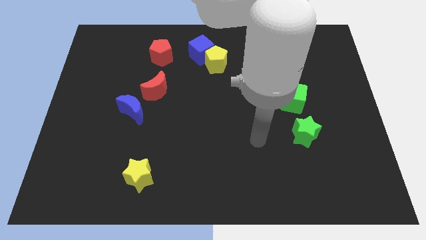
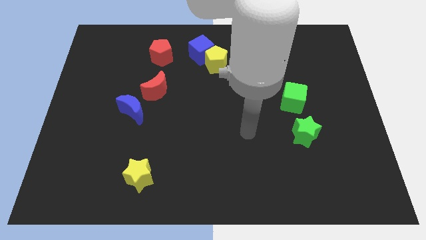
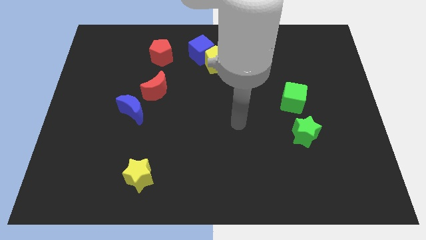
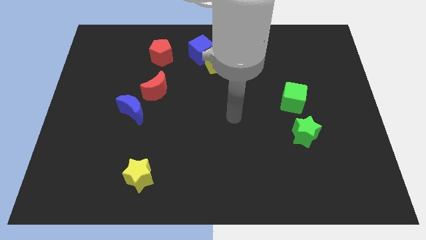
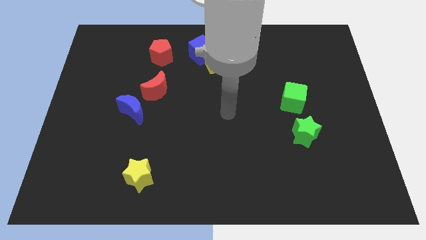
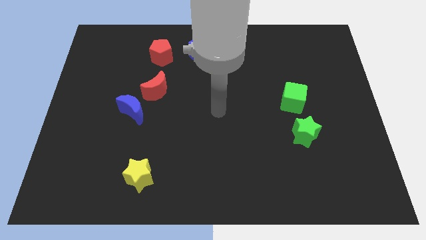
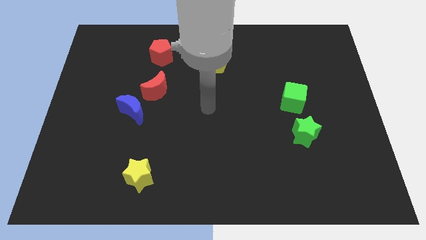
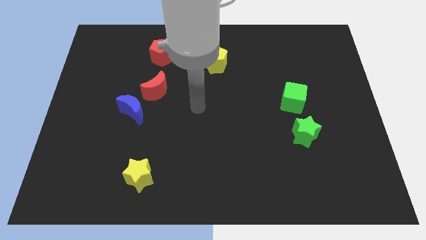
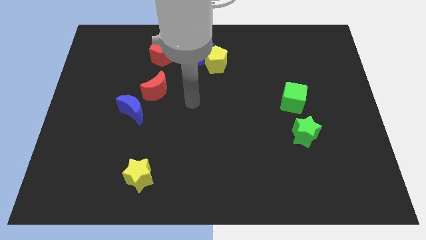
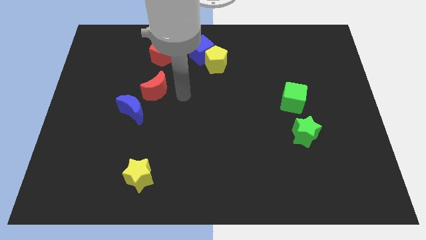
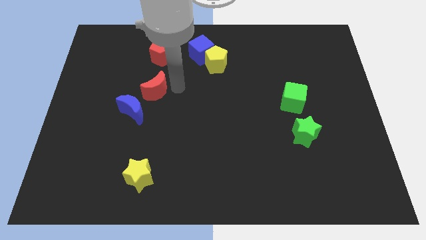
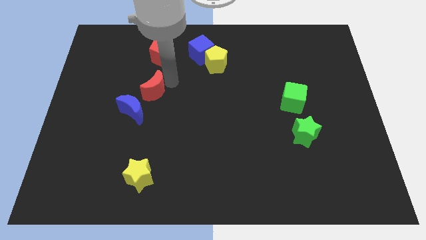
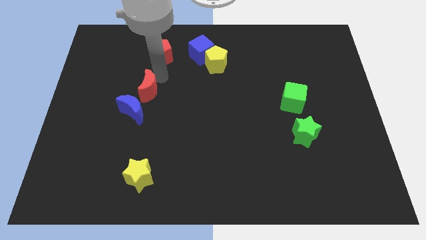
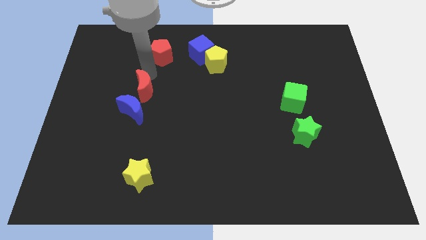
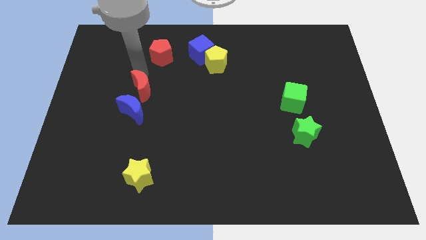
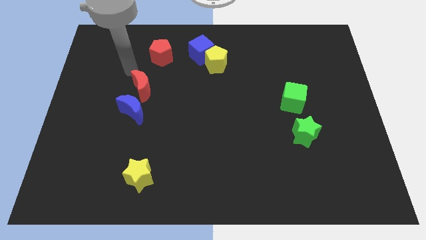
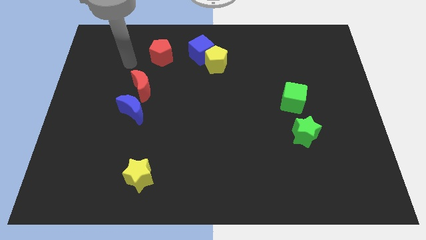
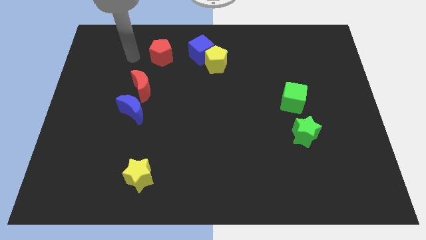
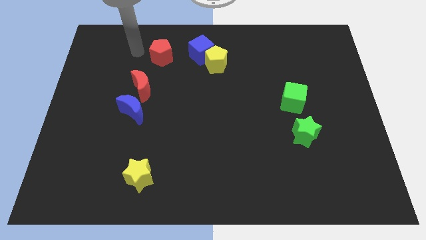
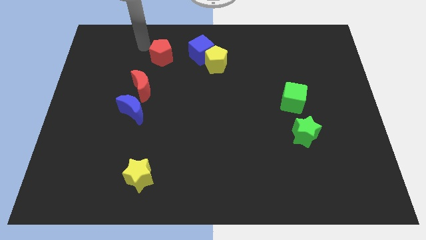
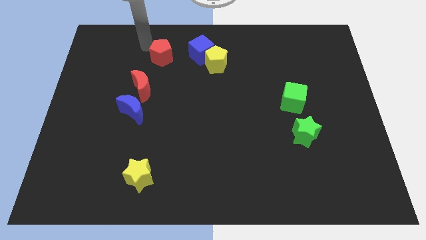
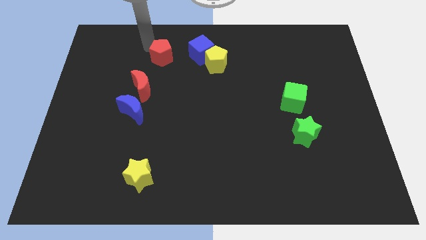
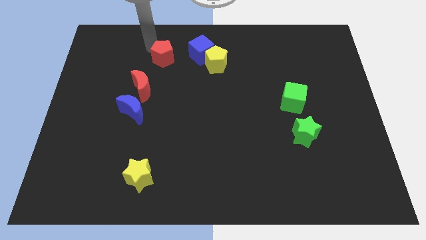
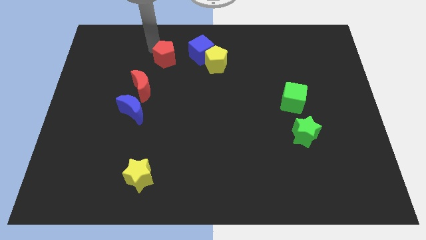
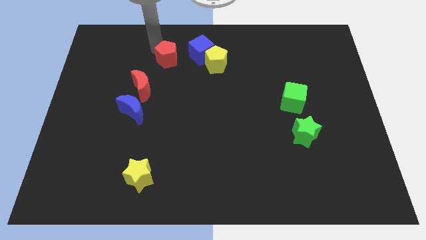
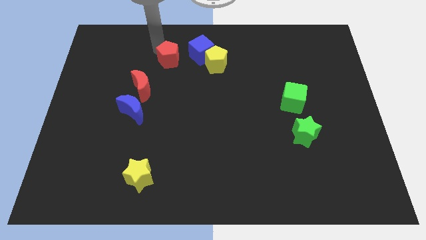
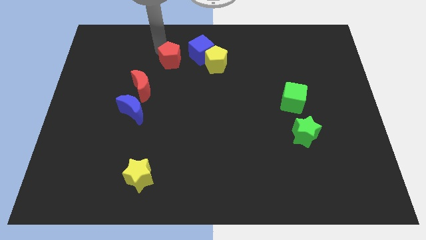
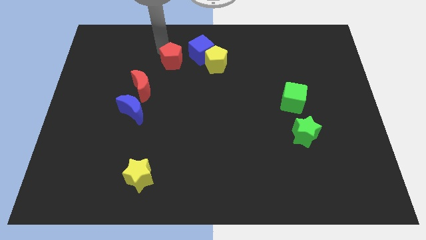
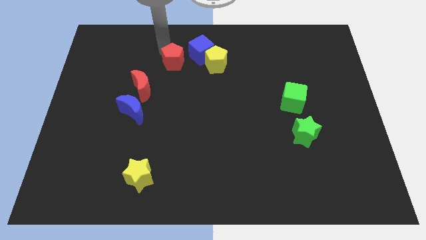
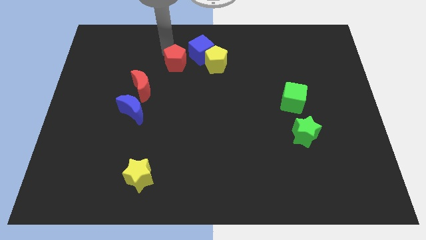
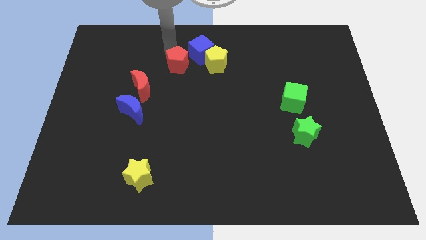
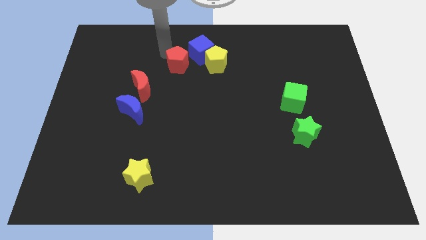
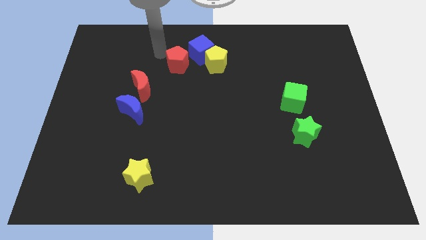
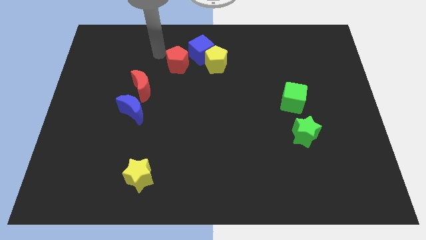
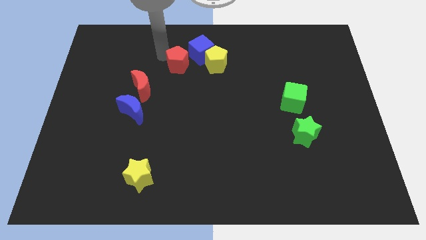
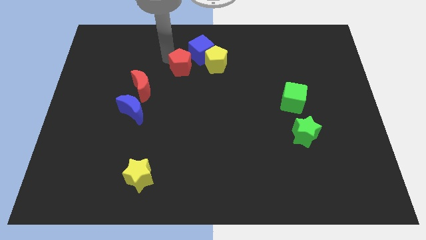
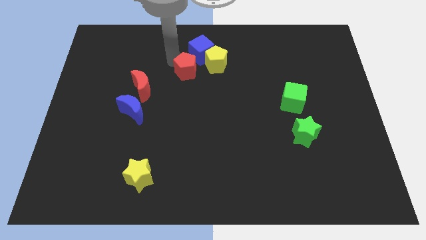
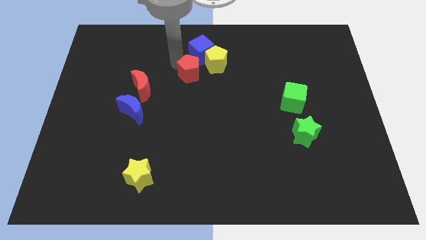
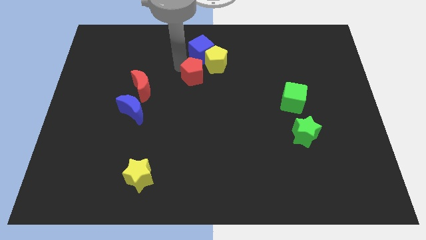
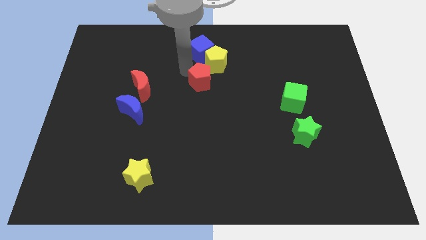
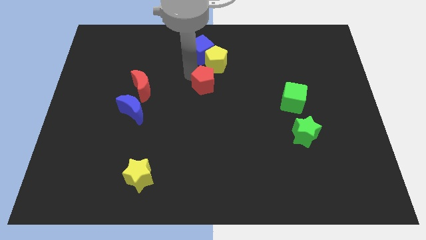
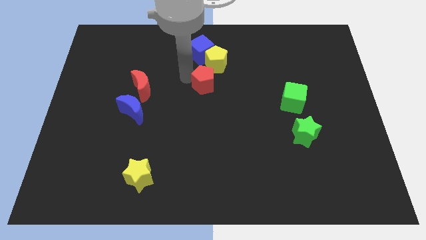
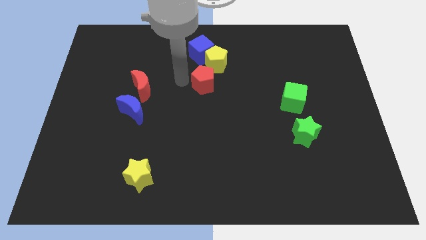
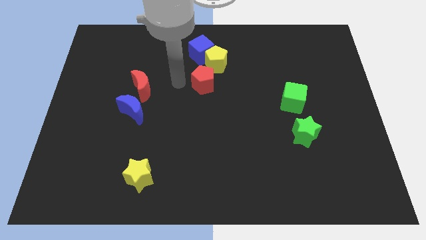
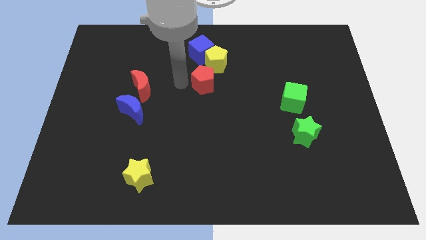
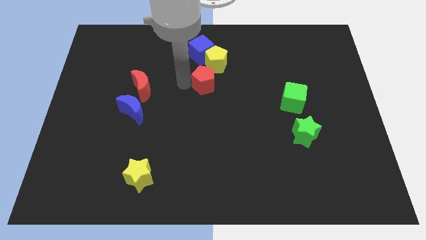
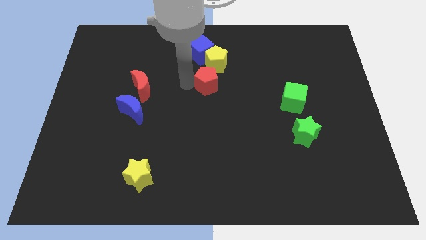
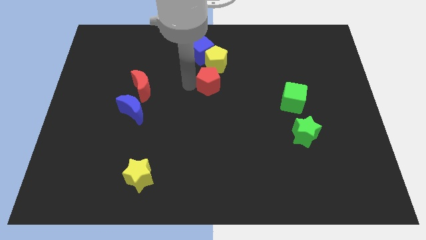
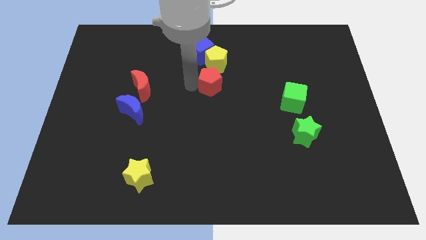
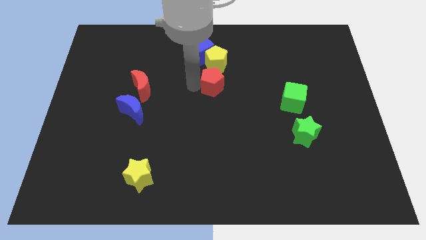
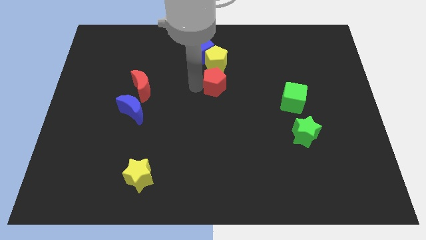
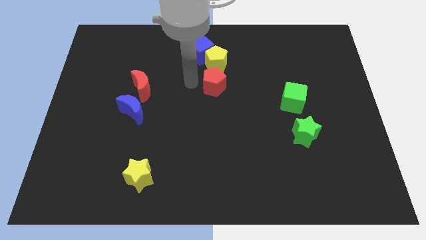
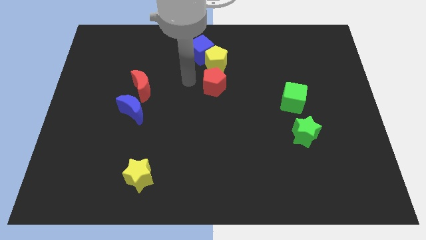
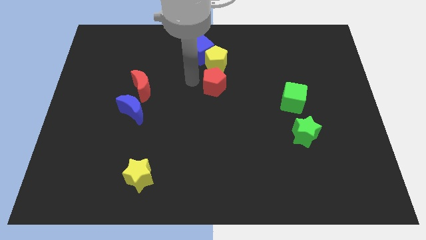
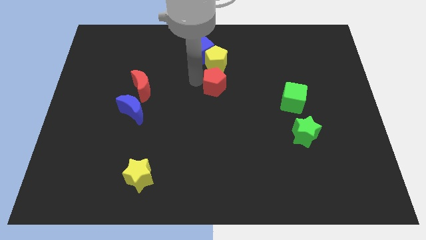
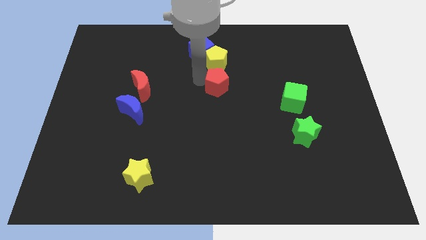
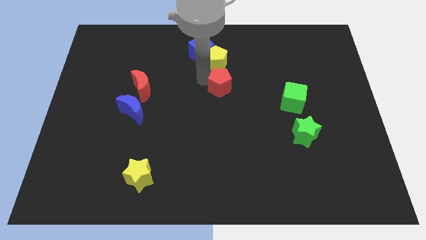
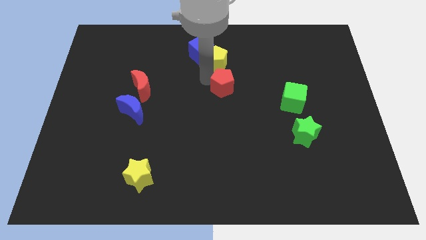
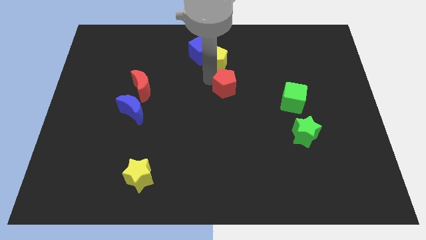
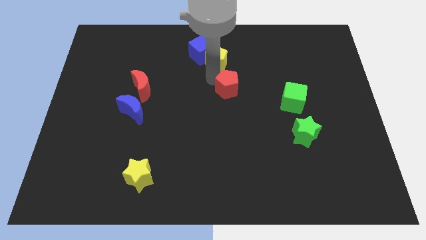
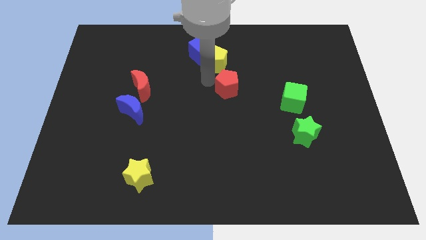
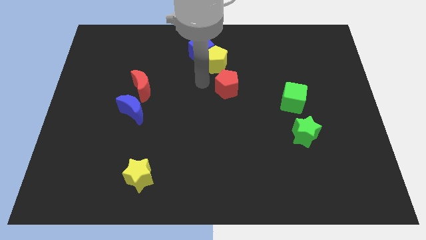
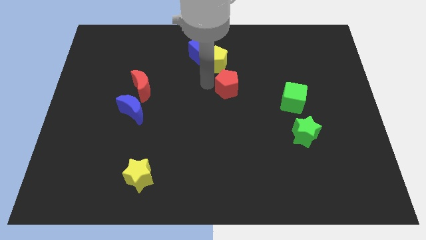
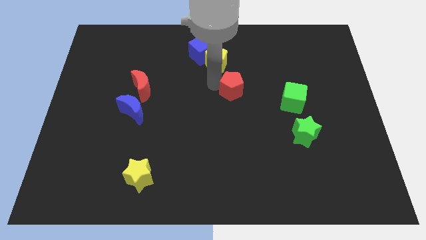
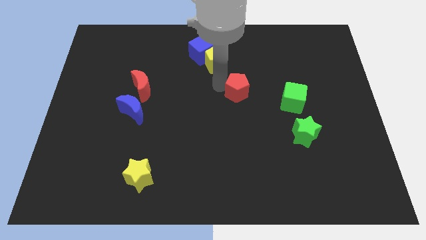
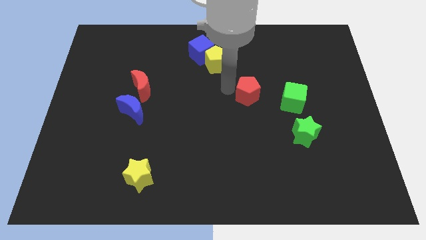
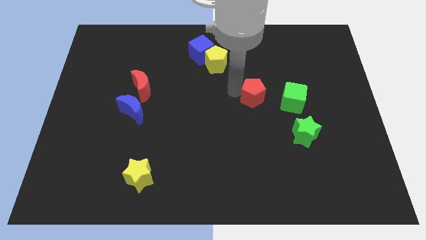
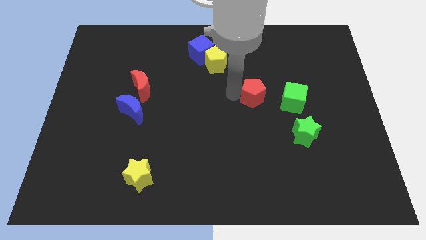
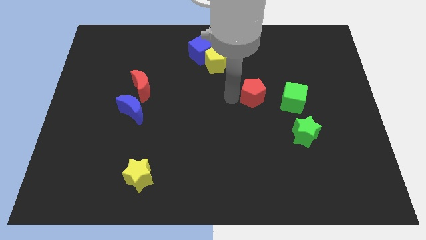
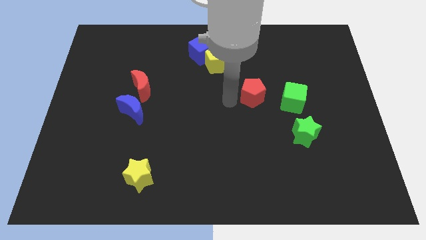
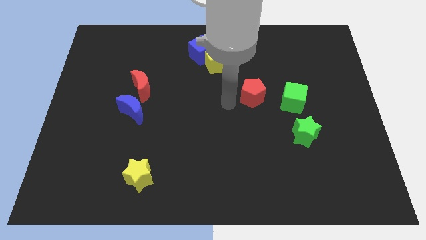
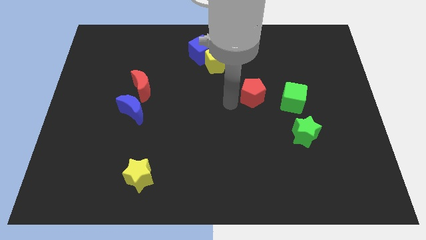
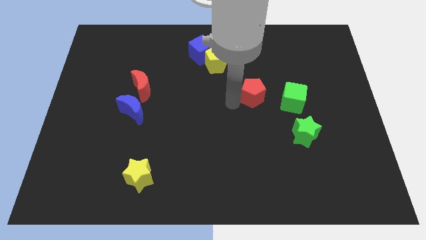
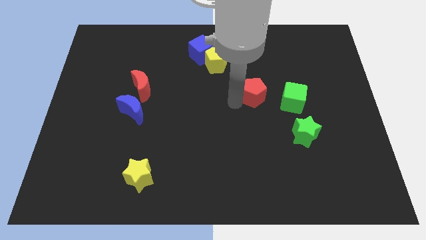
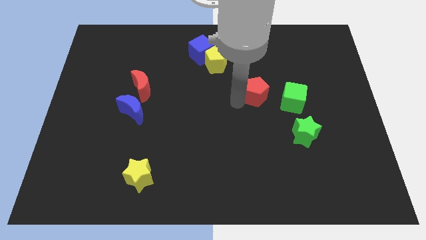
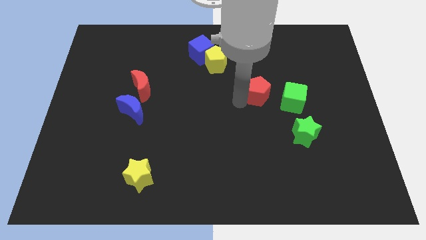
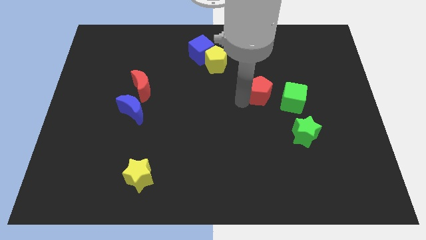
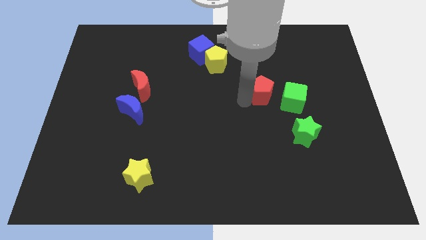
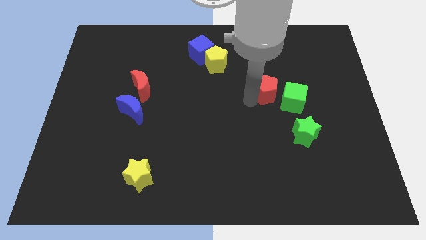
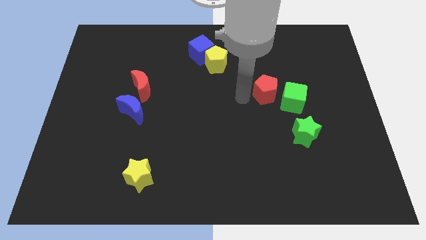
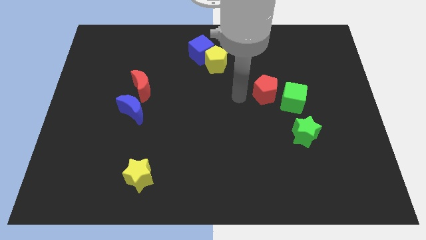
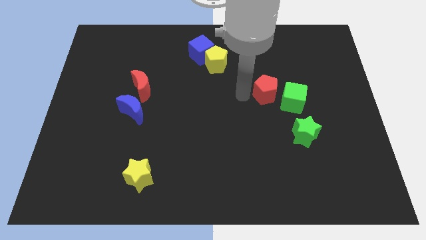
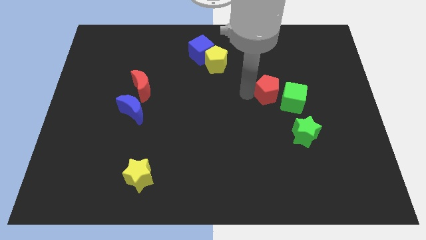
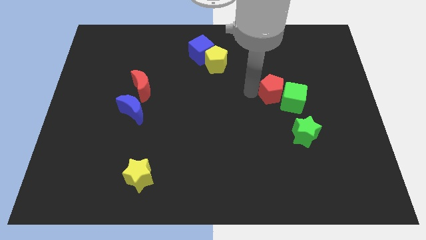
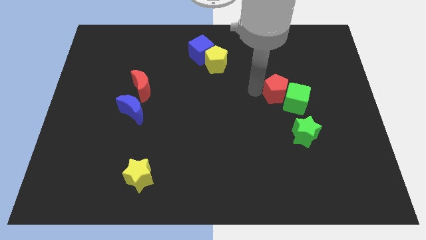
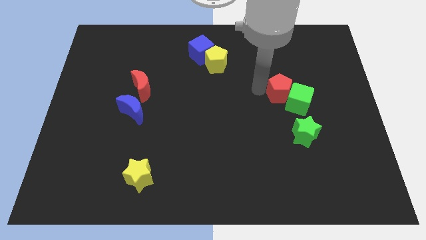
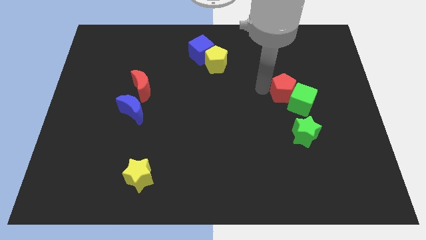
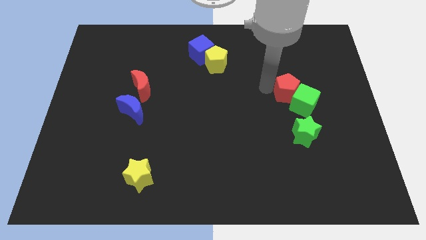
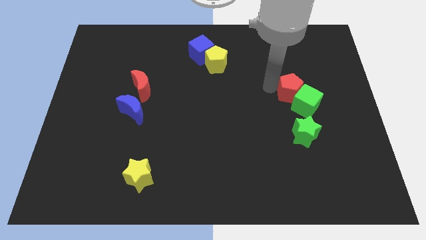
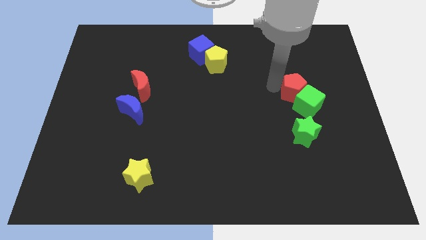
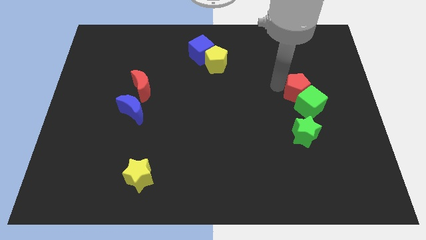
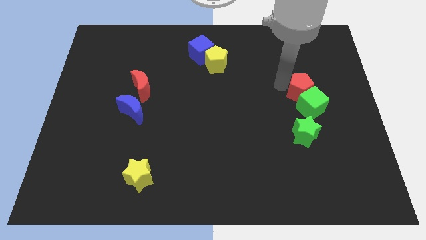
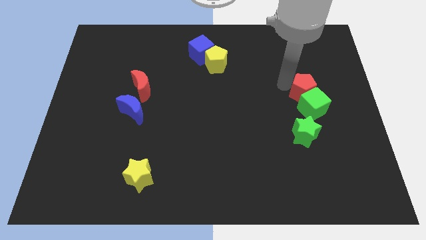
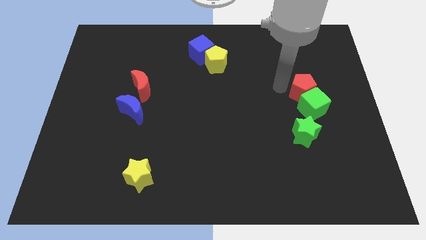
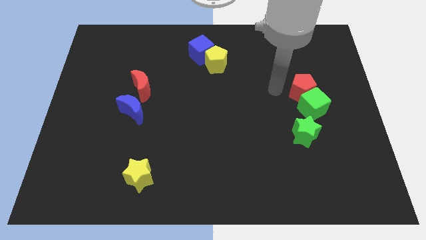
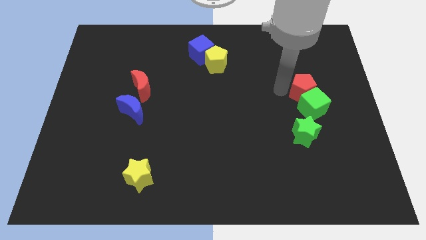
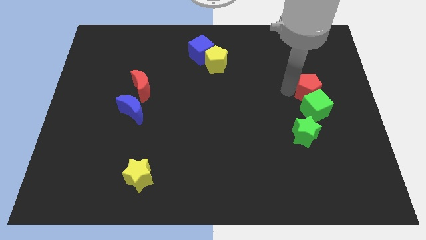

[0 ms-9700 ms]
push the red pentagon diagonally up and to the right of the green cube
